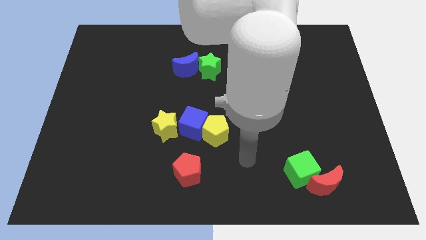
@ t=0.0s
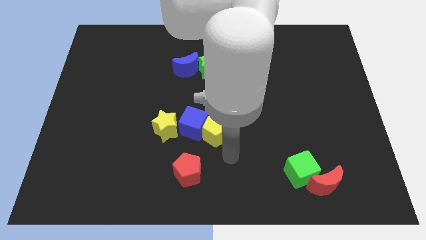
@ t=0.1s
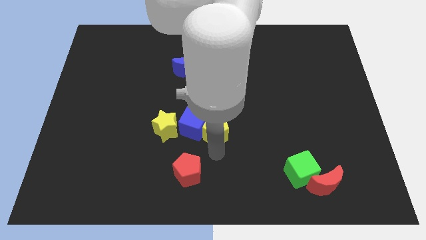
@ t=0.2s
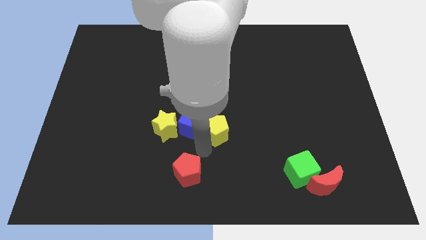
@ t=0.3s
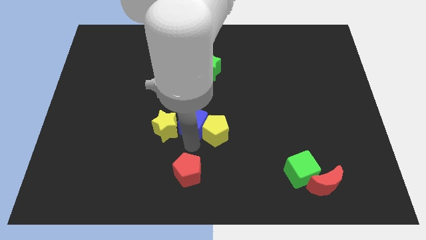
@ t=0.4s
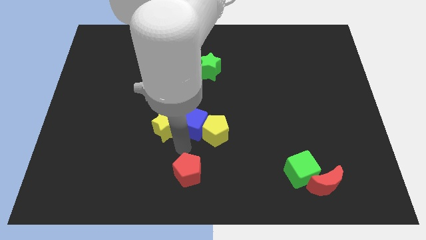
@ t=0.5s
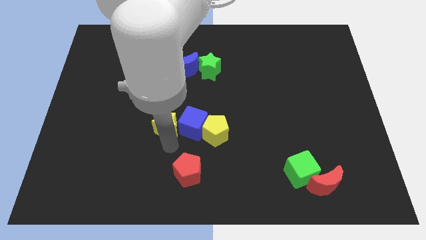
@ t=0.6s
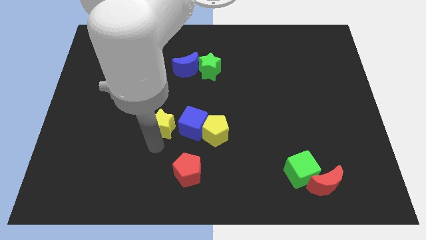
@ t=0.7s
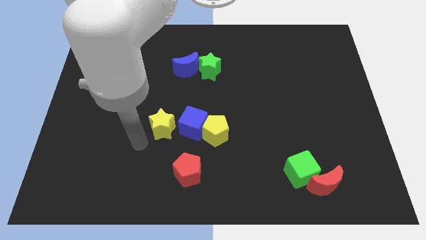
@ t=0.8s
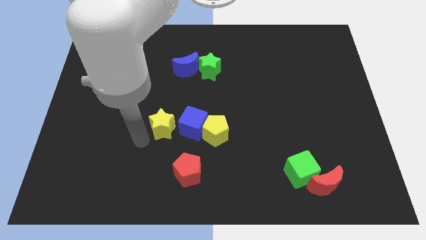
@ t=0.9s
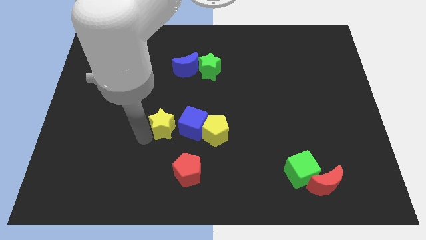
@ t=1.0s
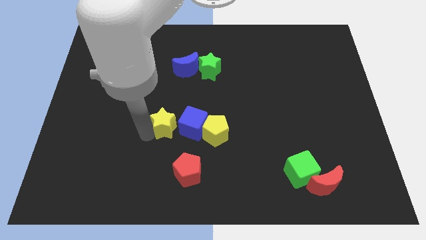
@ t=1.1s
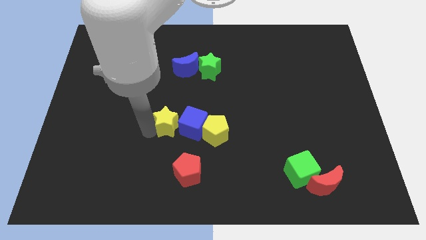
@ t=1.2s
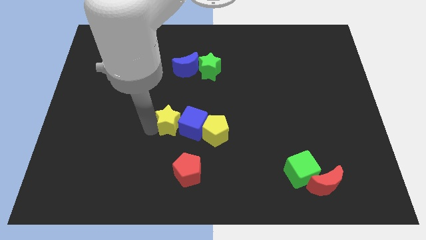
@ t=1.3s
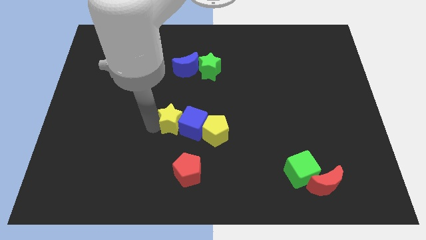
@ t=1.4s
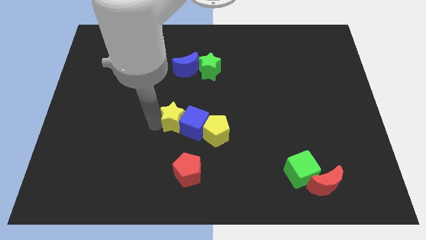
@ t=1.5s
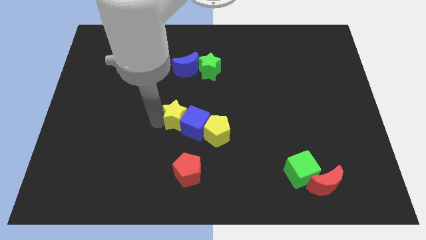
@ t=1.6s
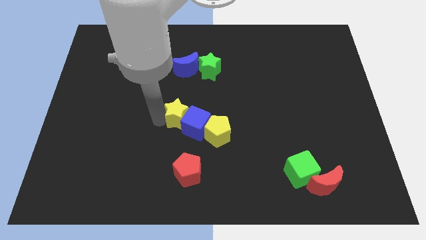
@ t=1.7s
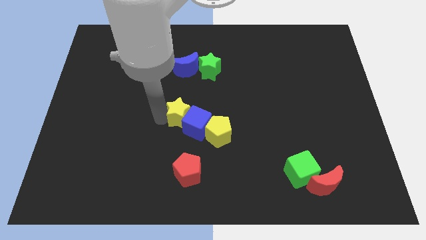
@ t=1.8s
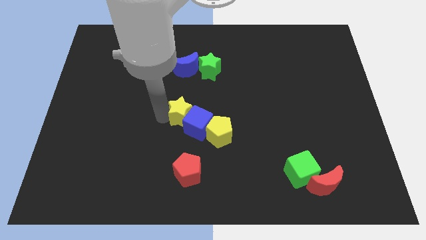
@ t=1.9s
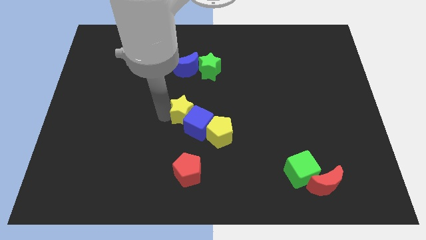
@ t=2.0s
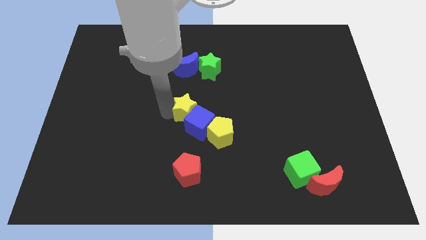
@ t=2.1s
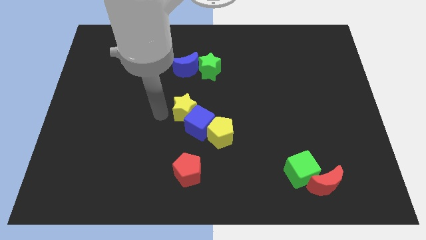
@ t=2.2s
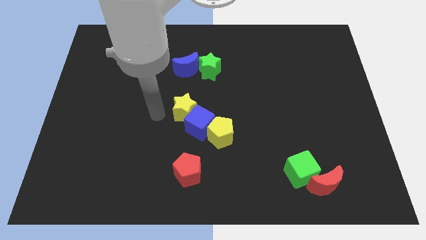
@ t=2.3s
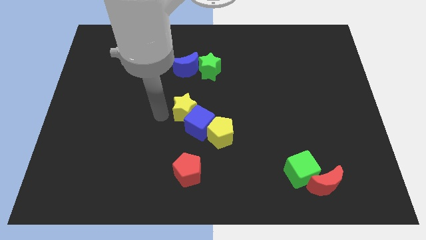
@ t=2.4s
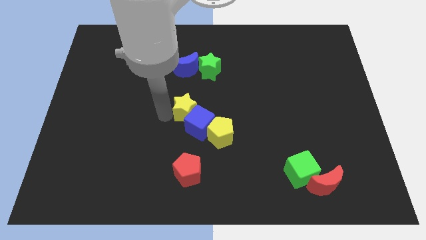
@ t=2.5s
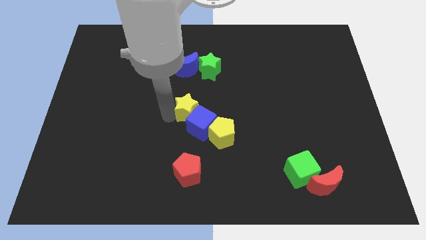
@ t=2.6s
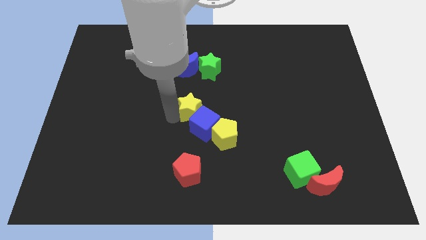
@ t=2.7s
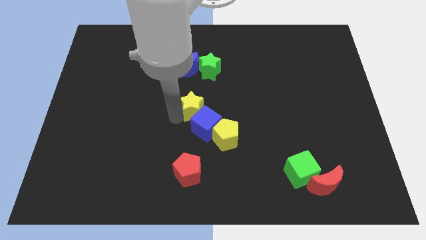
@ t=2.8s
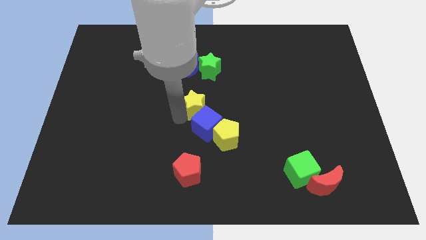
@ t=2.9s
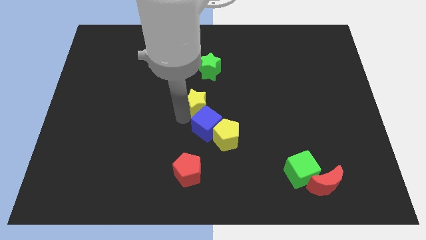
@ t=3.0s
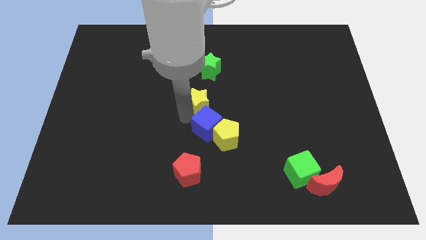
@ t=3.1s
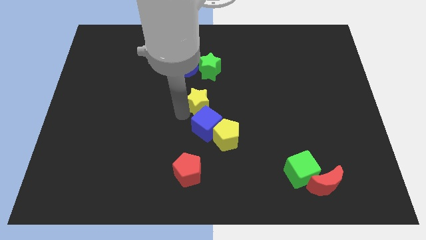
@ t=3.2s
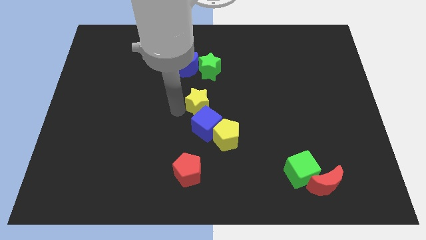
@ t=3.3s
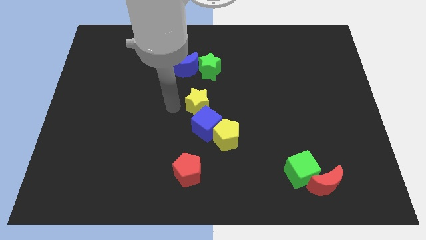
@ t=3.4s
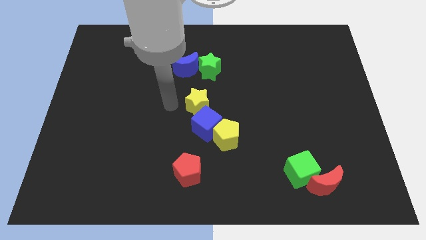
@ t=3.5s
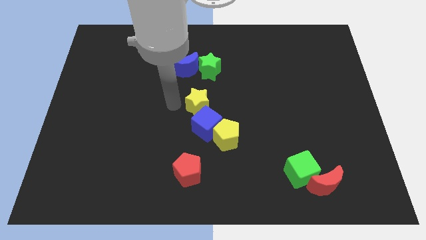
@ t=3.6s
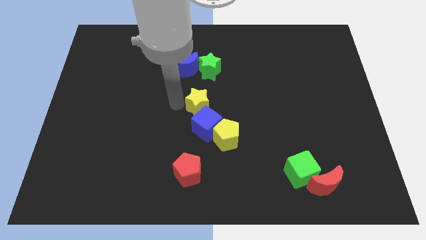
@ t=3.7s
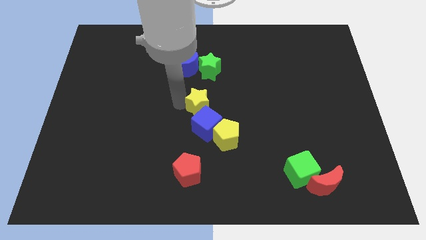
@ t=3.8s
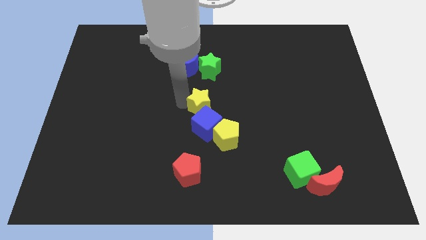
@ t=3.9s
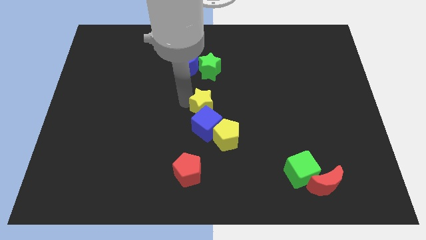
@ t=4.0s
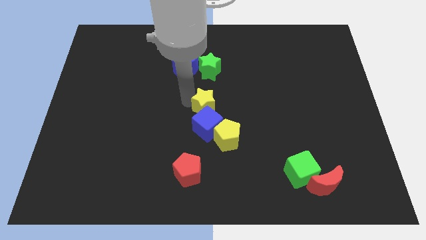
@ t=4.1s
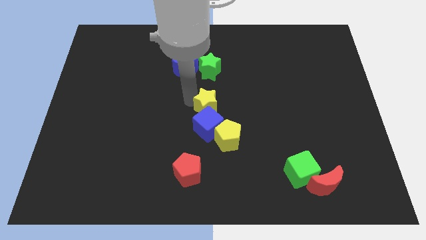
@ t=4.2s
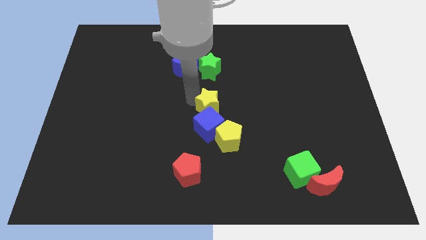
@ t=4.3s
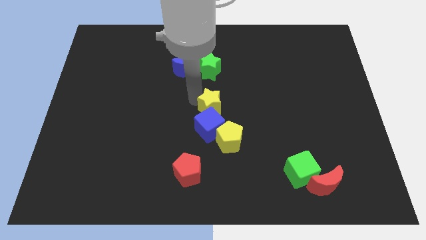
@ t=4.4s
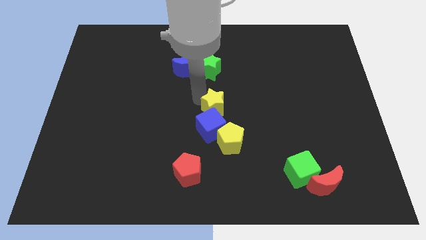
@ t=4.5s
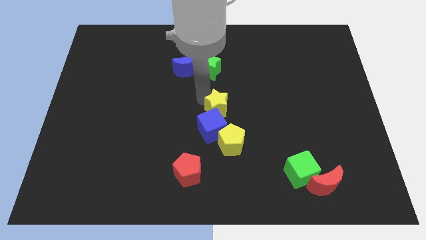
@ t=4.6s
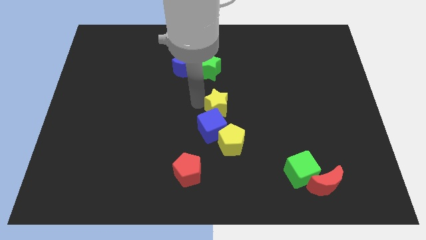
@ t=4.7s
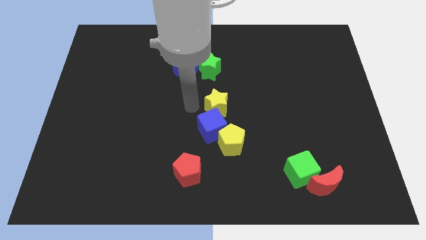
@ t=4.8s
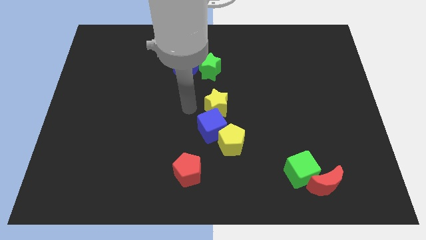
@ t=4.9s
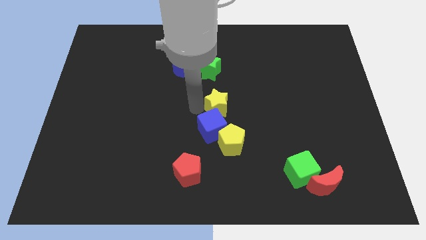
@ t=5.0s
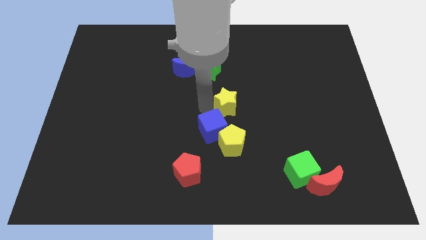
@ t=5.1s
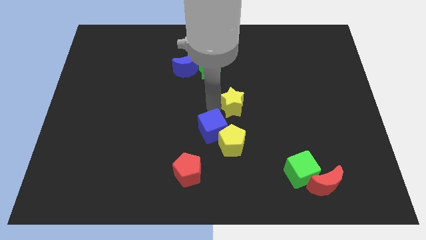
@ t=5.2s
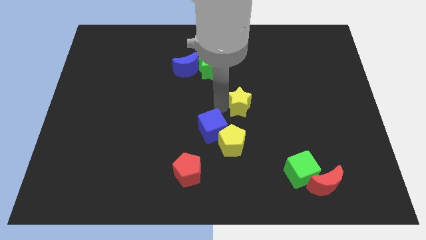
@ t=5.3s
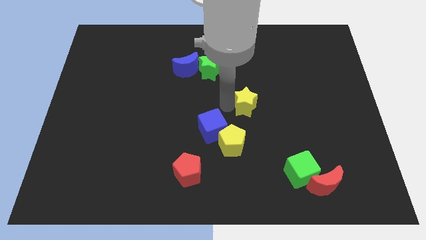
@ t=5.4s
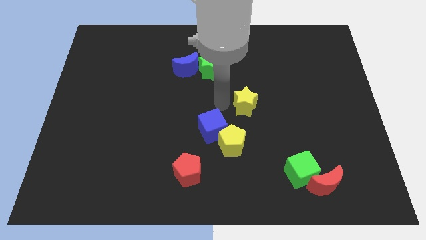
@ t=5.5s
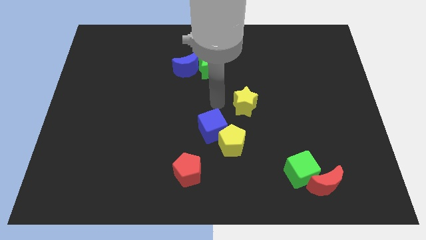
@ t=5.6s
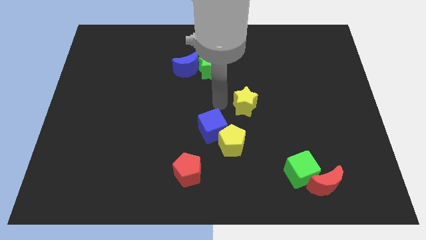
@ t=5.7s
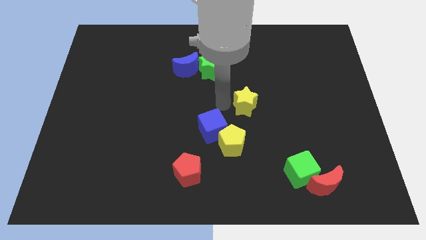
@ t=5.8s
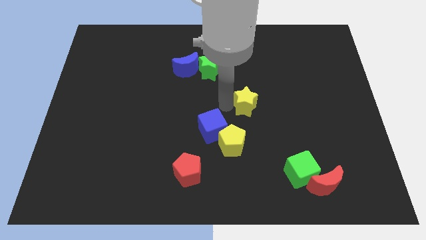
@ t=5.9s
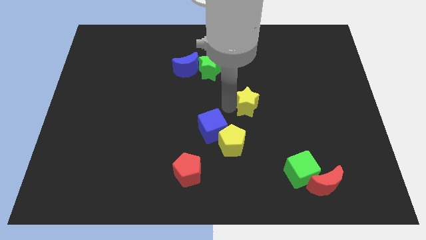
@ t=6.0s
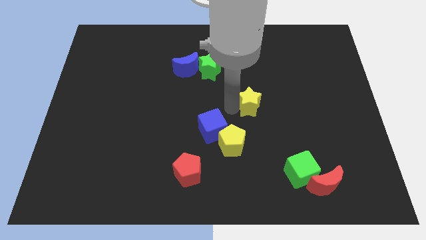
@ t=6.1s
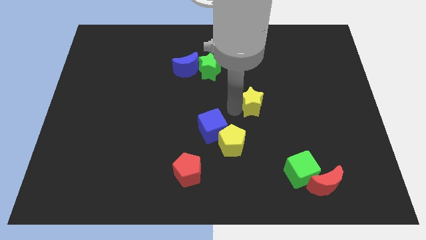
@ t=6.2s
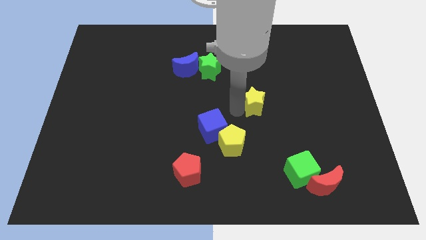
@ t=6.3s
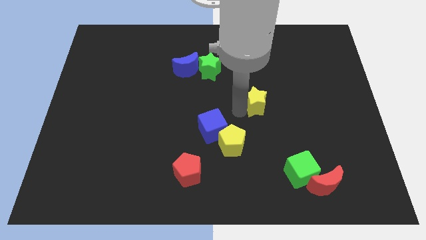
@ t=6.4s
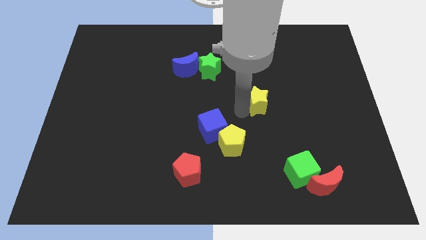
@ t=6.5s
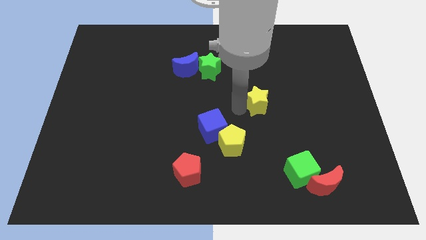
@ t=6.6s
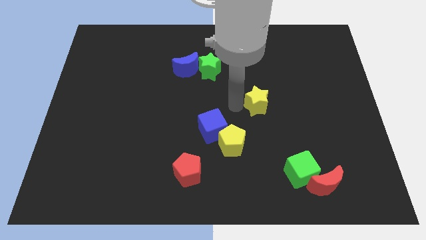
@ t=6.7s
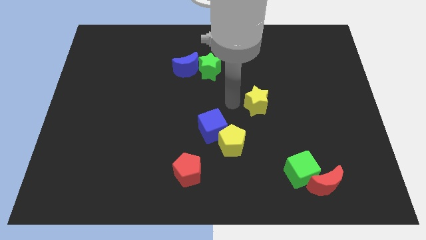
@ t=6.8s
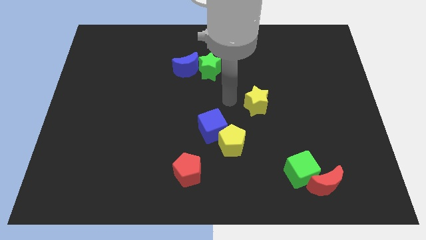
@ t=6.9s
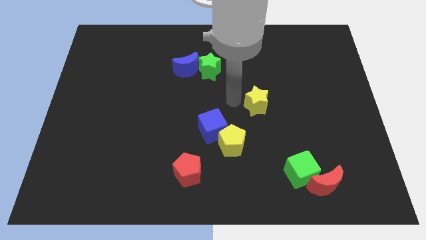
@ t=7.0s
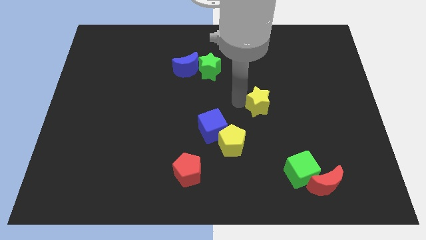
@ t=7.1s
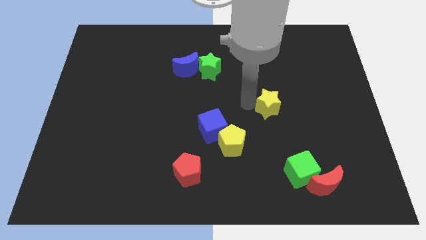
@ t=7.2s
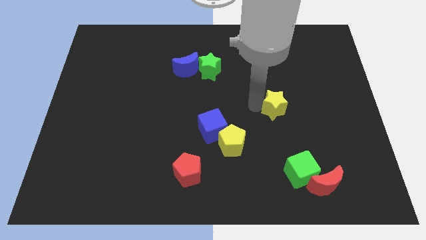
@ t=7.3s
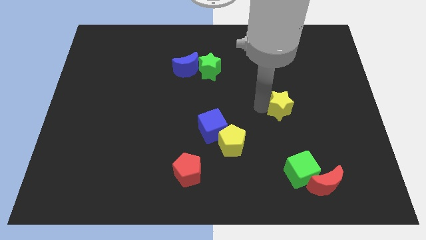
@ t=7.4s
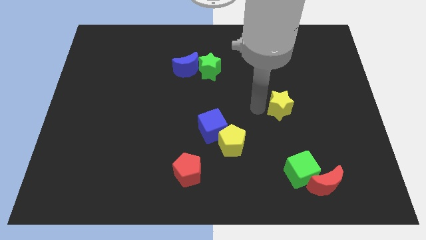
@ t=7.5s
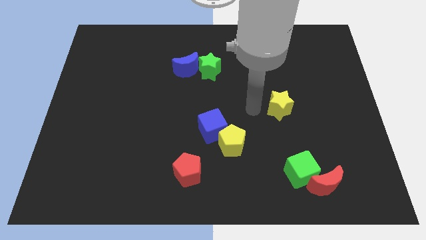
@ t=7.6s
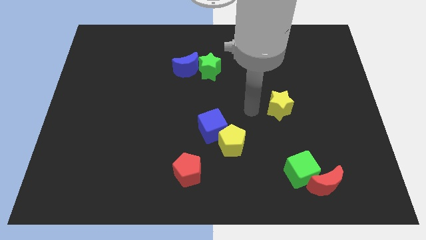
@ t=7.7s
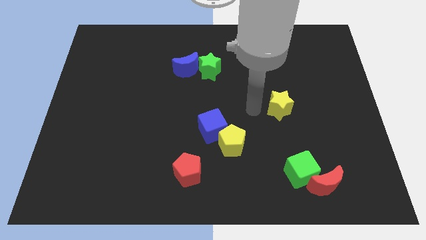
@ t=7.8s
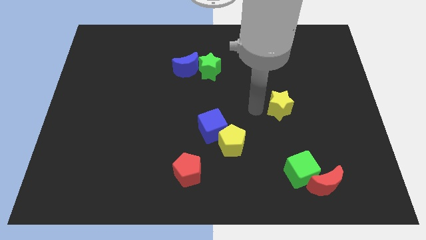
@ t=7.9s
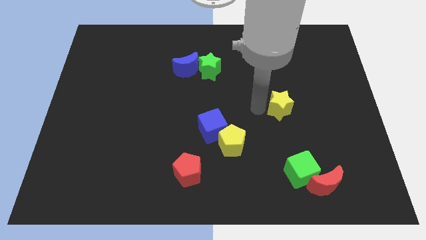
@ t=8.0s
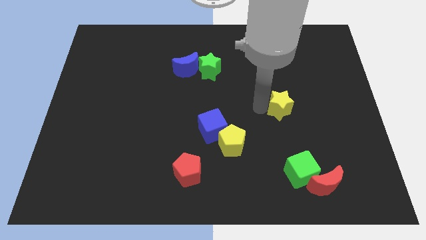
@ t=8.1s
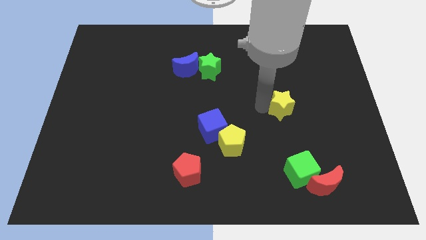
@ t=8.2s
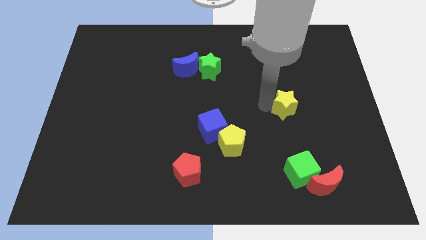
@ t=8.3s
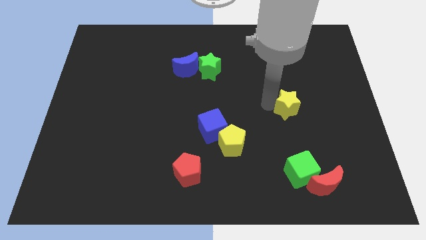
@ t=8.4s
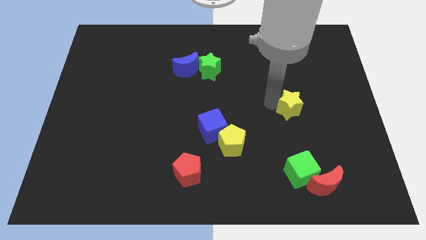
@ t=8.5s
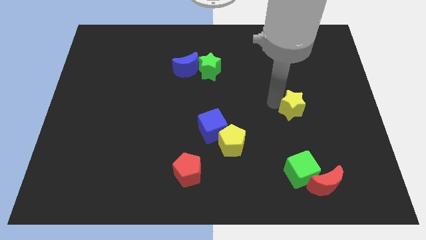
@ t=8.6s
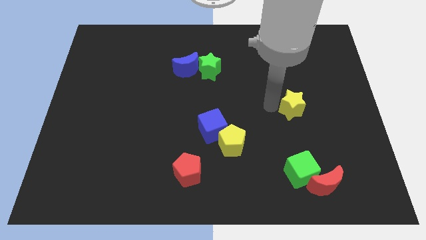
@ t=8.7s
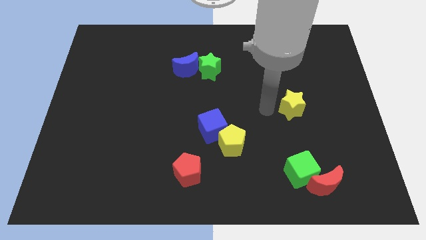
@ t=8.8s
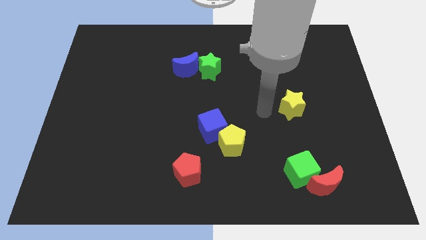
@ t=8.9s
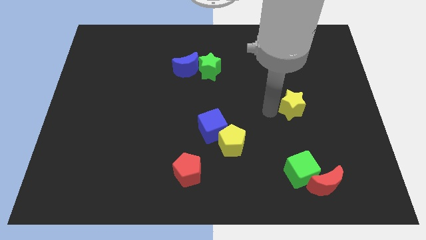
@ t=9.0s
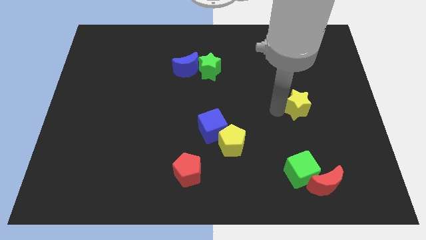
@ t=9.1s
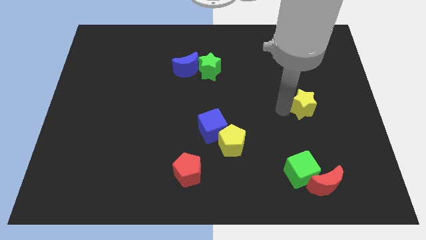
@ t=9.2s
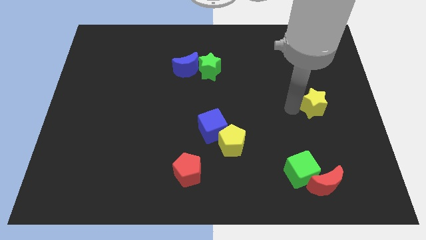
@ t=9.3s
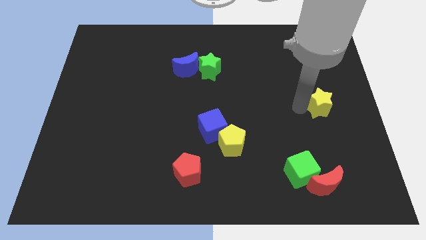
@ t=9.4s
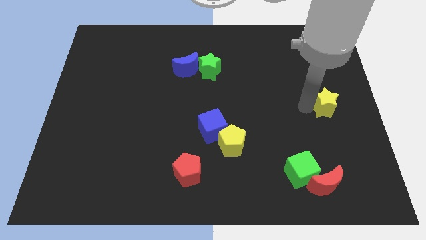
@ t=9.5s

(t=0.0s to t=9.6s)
push the yellow star to the right side
